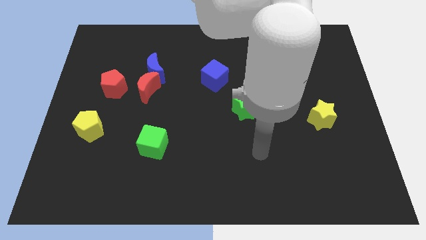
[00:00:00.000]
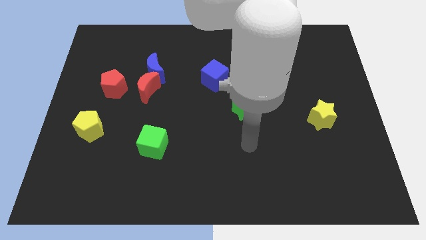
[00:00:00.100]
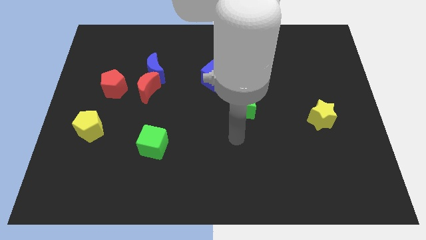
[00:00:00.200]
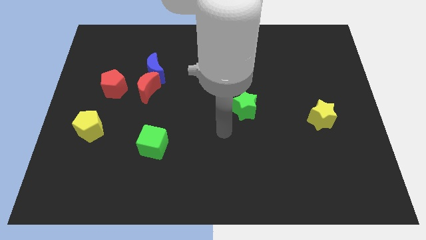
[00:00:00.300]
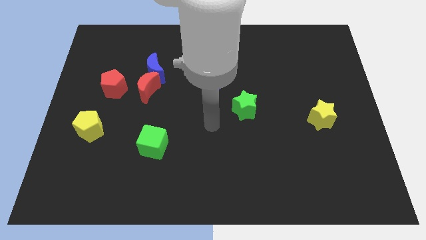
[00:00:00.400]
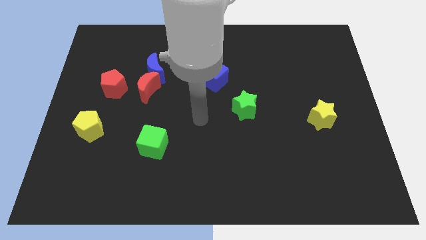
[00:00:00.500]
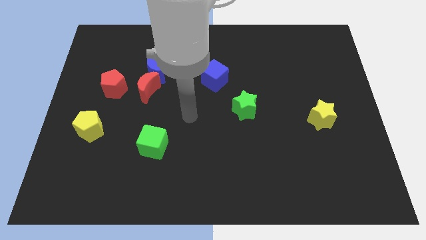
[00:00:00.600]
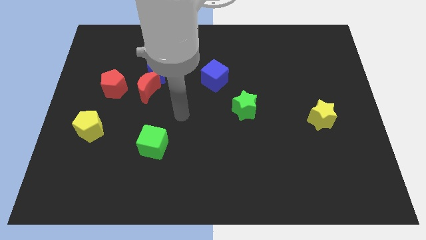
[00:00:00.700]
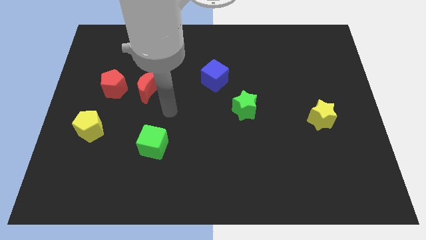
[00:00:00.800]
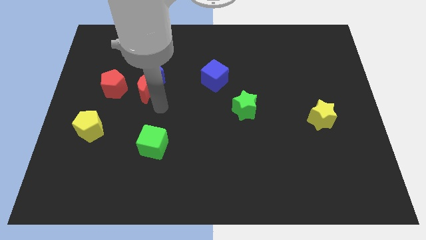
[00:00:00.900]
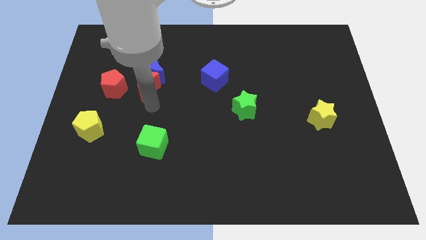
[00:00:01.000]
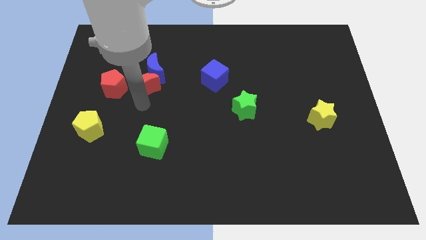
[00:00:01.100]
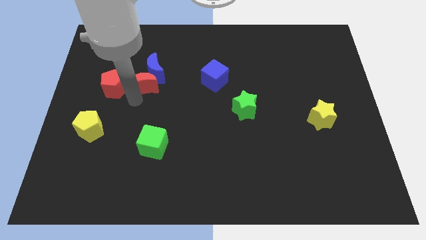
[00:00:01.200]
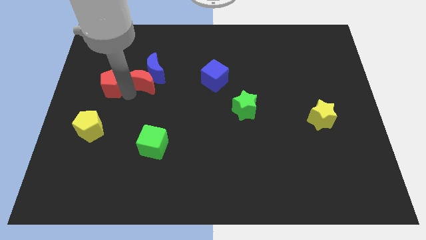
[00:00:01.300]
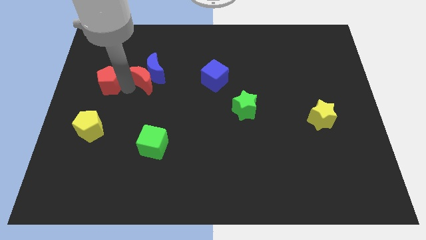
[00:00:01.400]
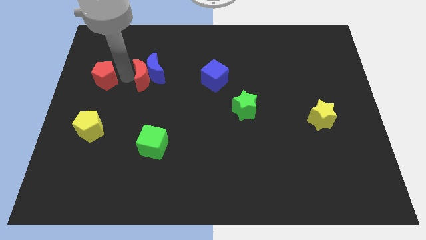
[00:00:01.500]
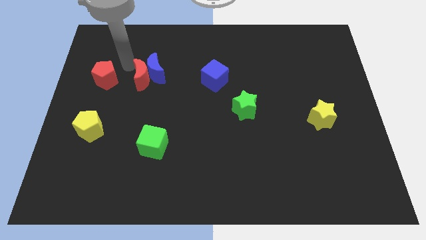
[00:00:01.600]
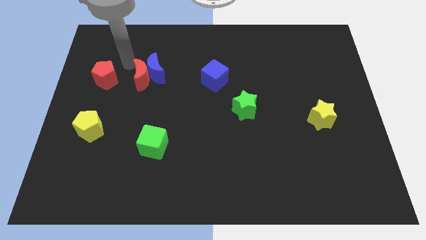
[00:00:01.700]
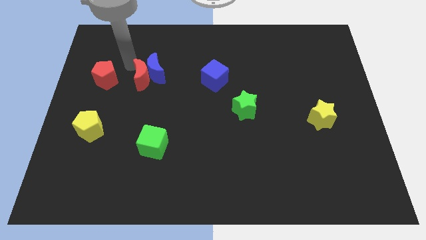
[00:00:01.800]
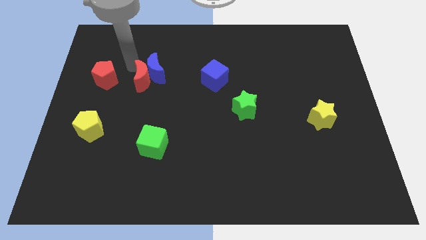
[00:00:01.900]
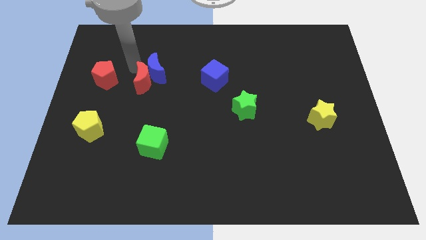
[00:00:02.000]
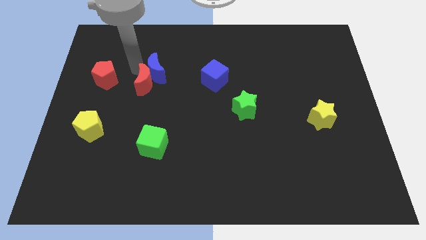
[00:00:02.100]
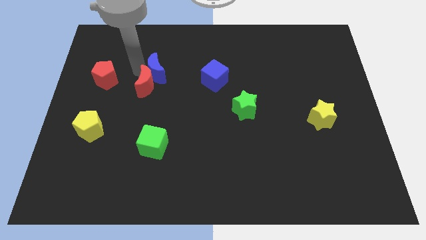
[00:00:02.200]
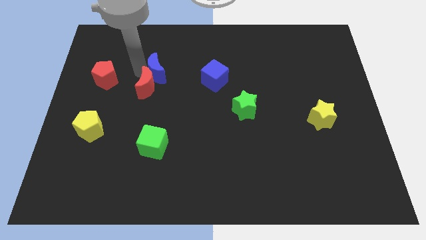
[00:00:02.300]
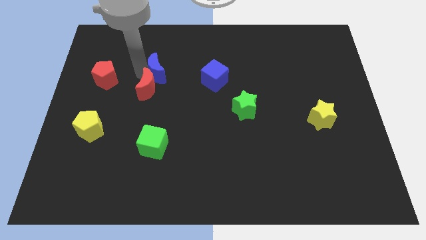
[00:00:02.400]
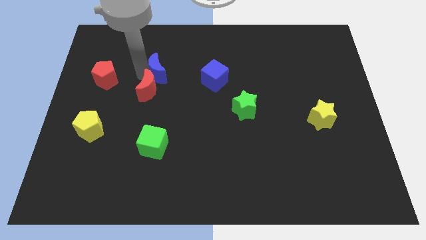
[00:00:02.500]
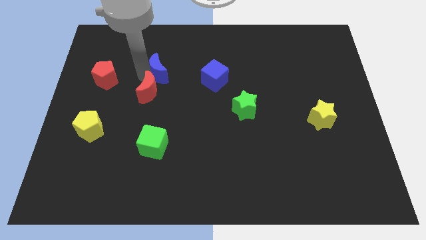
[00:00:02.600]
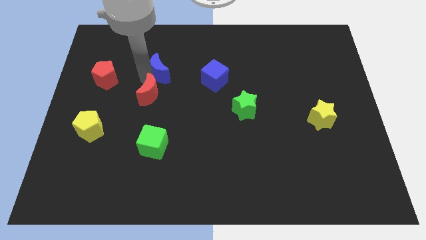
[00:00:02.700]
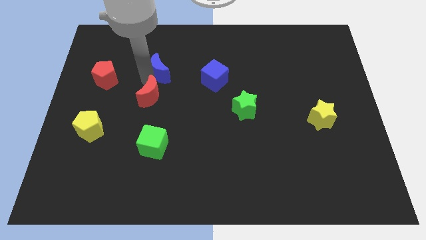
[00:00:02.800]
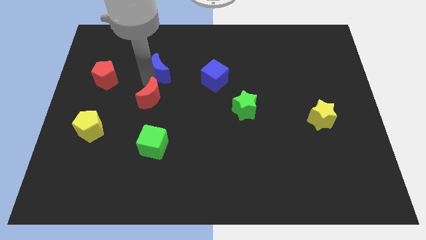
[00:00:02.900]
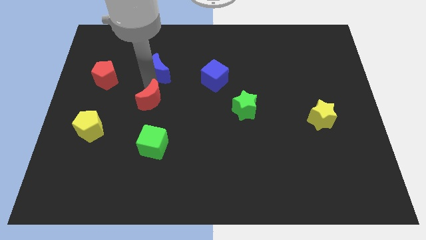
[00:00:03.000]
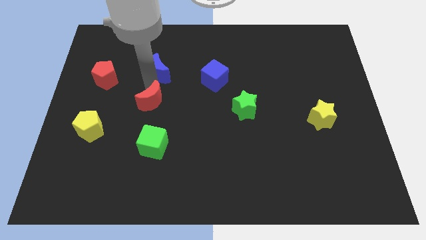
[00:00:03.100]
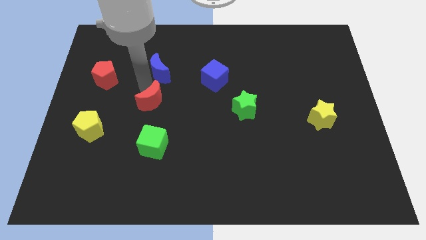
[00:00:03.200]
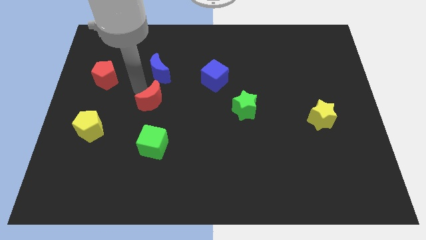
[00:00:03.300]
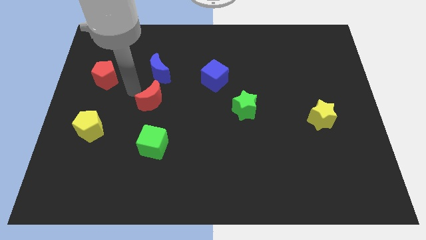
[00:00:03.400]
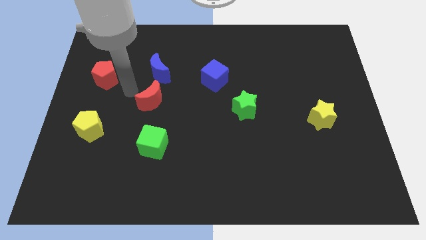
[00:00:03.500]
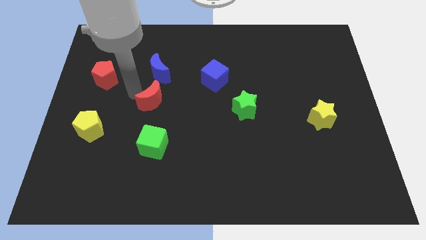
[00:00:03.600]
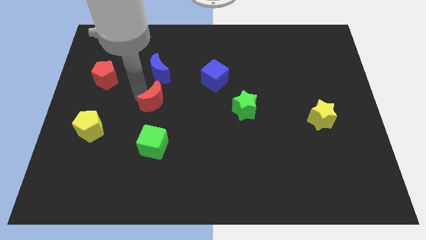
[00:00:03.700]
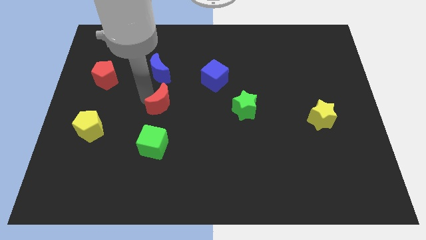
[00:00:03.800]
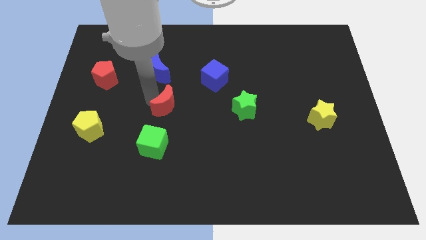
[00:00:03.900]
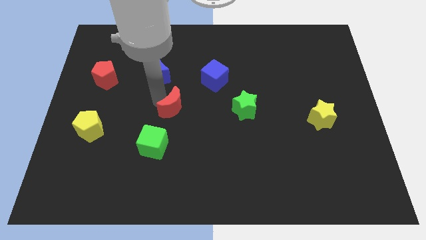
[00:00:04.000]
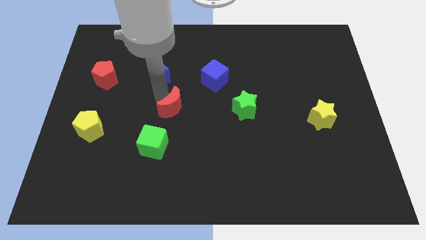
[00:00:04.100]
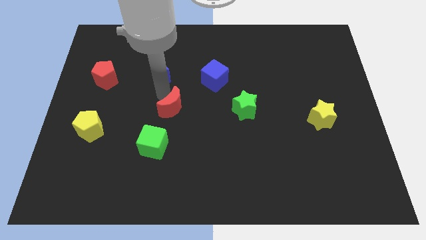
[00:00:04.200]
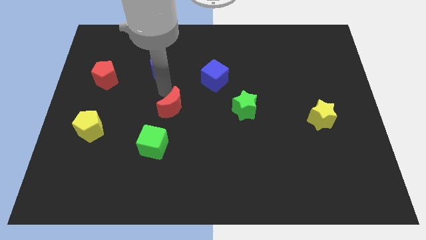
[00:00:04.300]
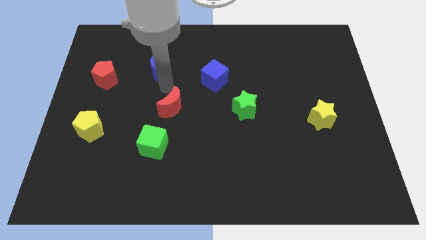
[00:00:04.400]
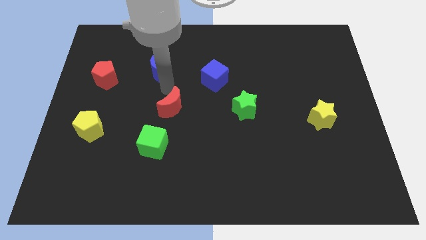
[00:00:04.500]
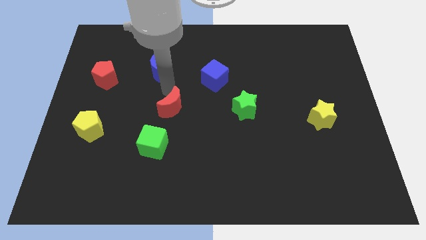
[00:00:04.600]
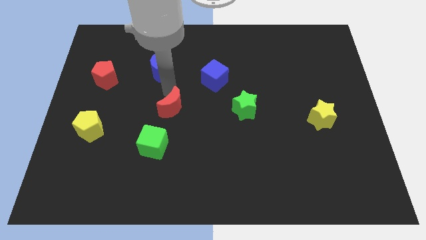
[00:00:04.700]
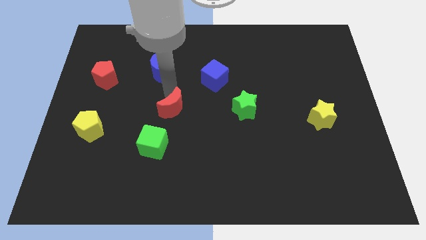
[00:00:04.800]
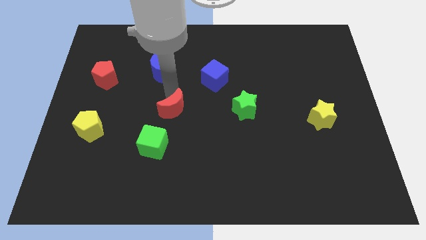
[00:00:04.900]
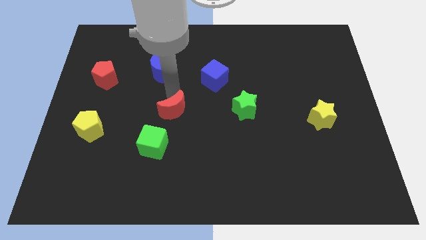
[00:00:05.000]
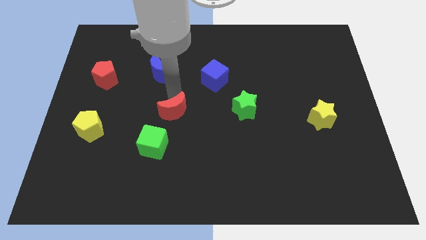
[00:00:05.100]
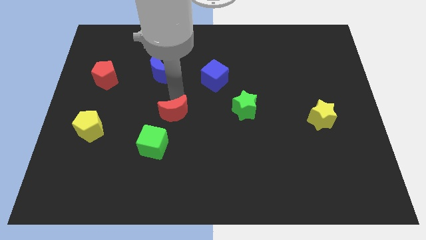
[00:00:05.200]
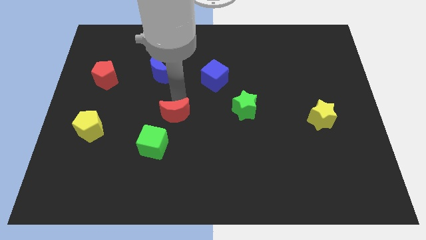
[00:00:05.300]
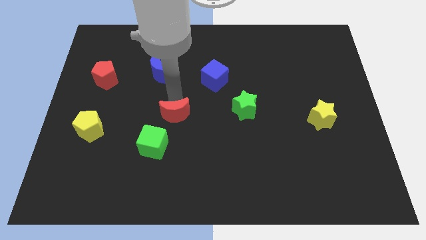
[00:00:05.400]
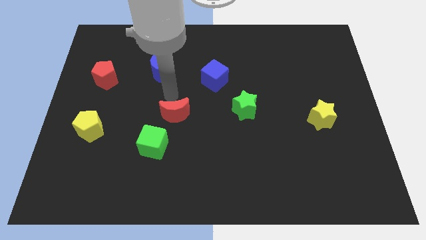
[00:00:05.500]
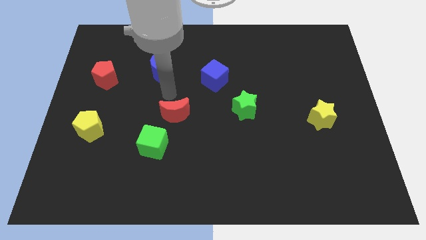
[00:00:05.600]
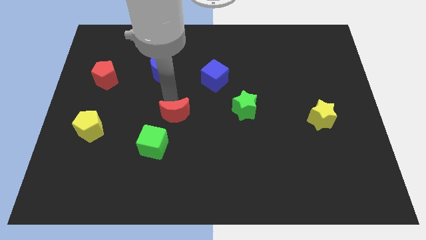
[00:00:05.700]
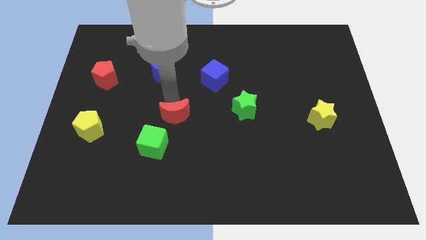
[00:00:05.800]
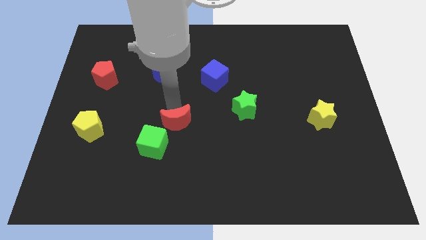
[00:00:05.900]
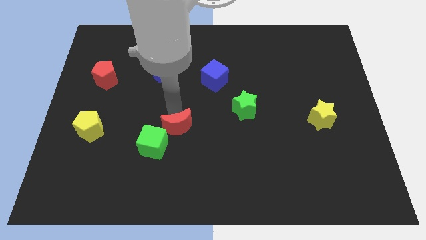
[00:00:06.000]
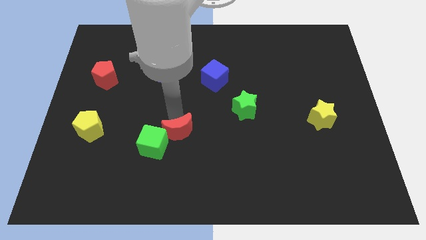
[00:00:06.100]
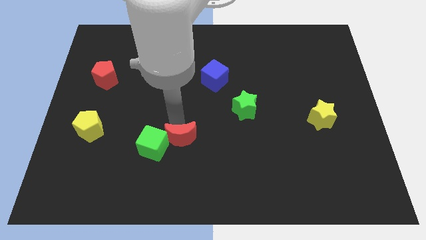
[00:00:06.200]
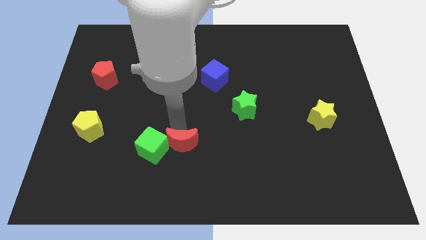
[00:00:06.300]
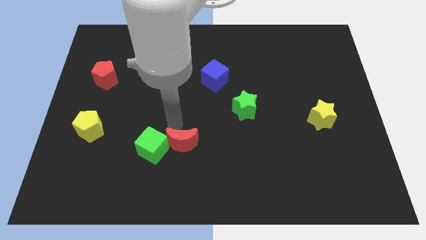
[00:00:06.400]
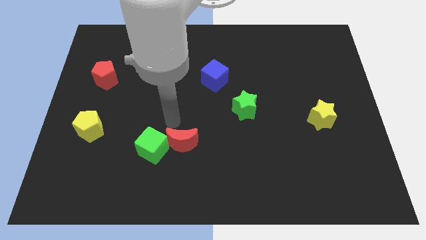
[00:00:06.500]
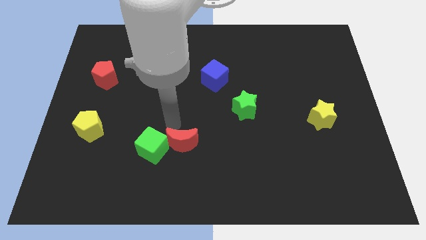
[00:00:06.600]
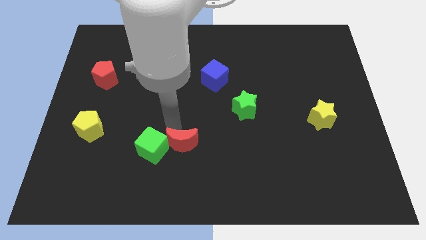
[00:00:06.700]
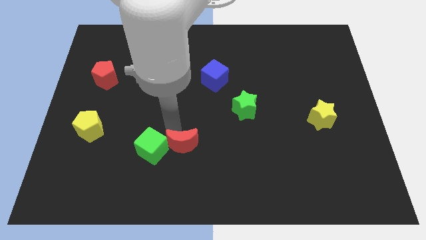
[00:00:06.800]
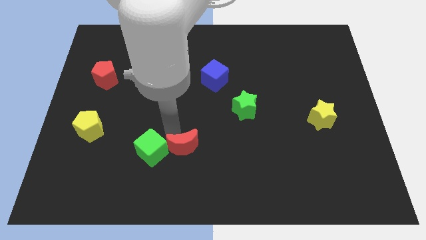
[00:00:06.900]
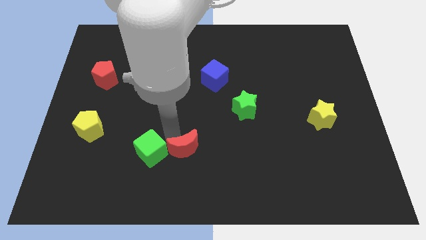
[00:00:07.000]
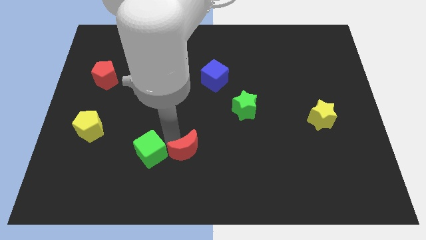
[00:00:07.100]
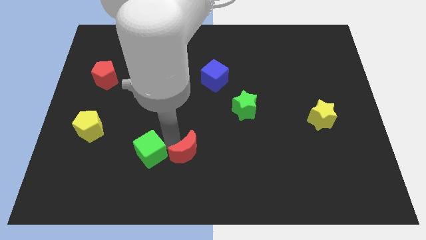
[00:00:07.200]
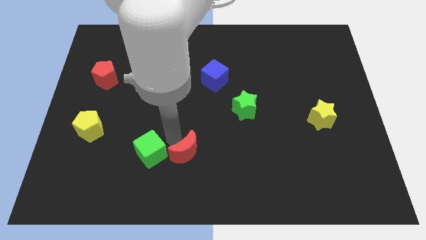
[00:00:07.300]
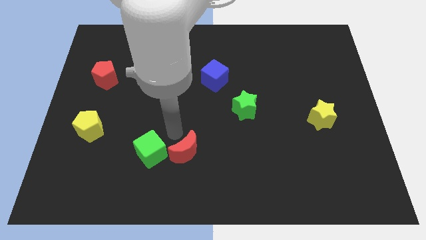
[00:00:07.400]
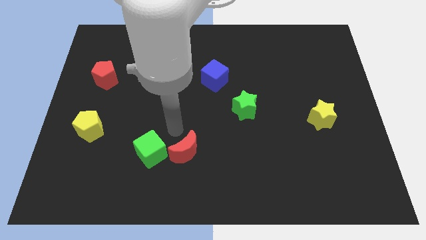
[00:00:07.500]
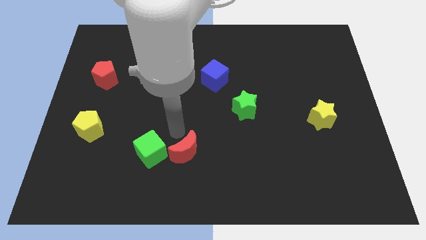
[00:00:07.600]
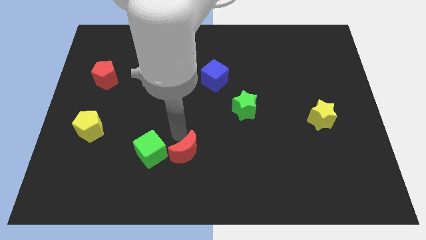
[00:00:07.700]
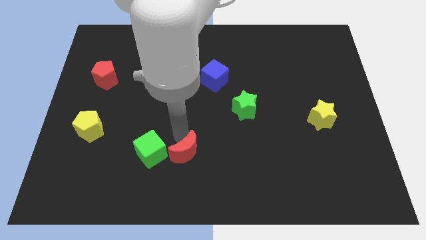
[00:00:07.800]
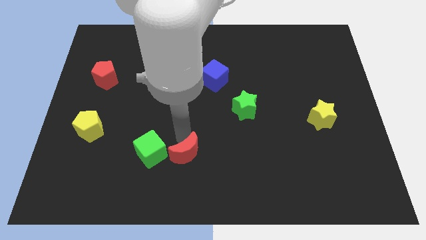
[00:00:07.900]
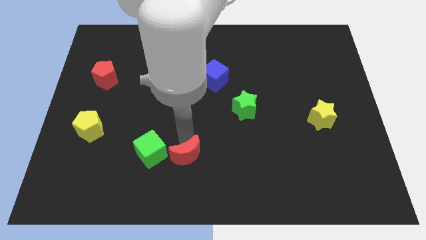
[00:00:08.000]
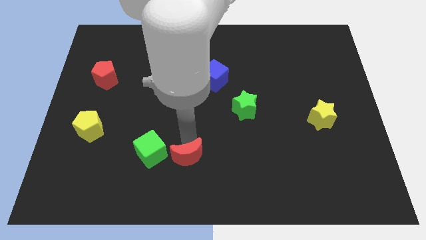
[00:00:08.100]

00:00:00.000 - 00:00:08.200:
slide the red moon to the bottom
